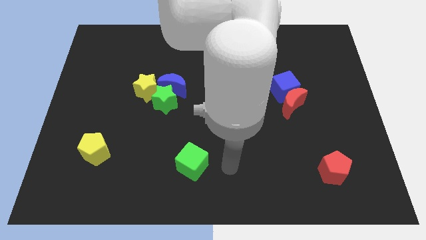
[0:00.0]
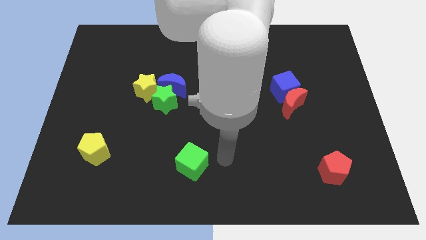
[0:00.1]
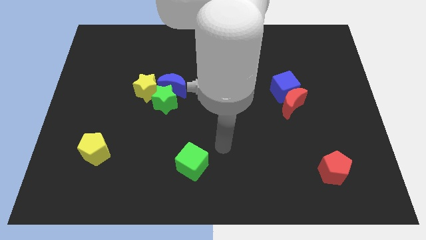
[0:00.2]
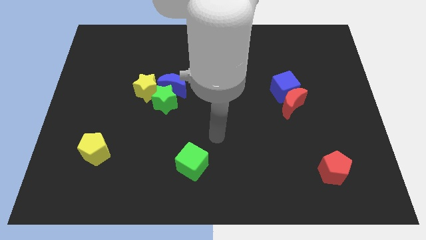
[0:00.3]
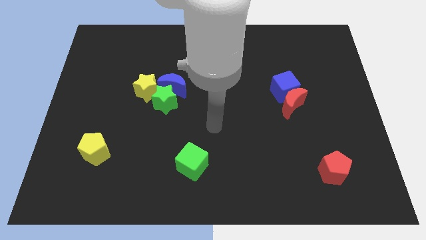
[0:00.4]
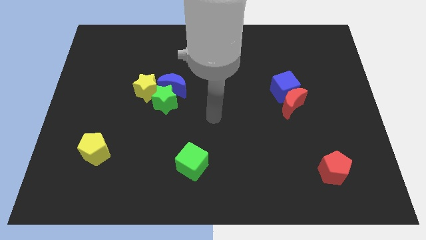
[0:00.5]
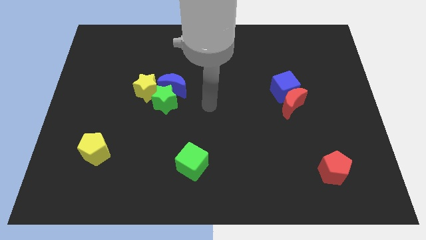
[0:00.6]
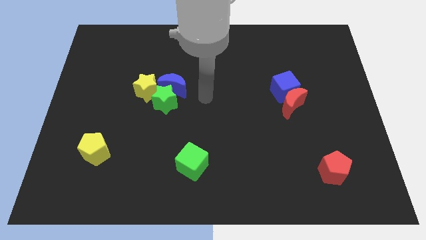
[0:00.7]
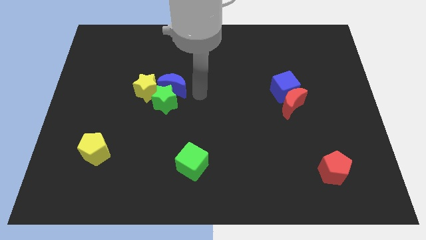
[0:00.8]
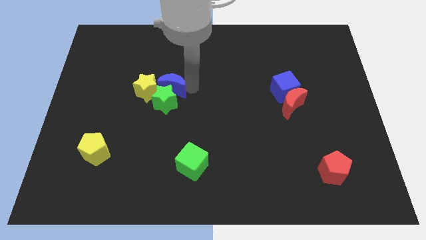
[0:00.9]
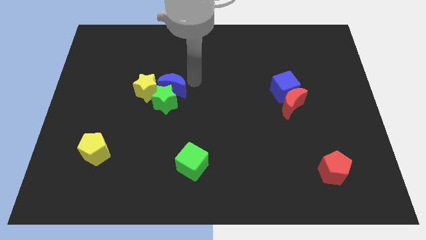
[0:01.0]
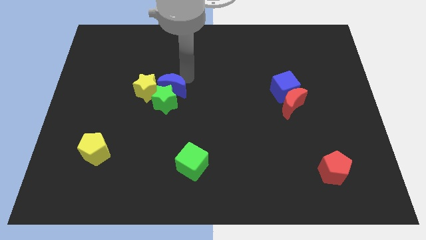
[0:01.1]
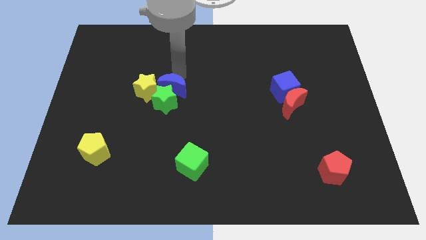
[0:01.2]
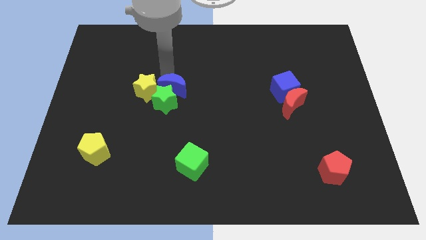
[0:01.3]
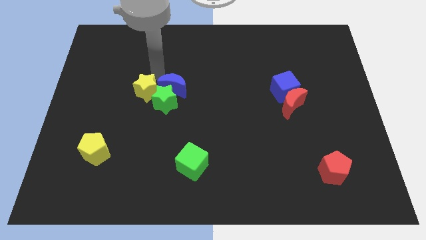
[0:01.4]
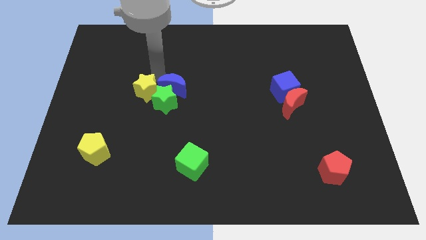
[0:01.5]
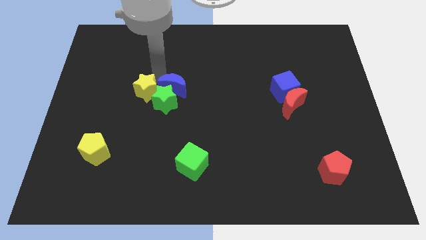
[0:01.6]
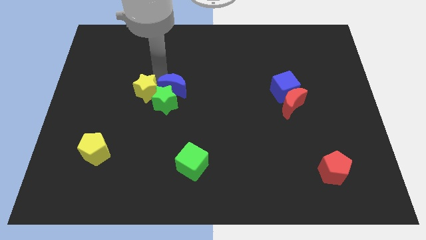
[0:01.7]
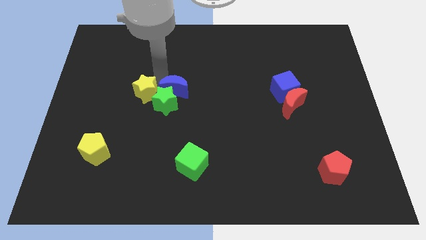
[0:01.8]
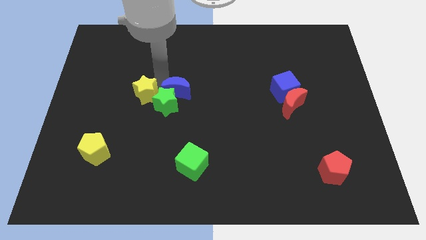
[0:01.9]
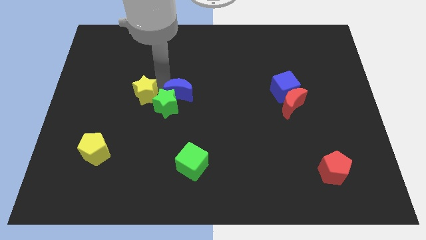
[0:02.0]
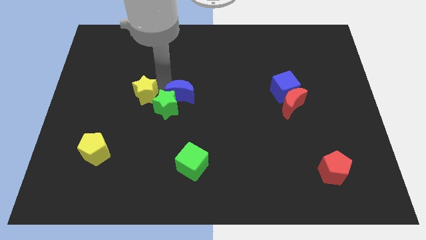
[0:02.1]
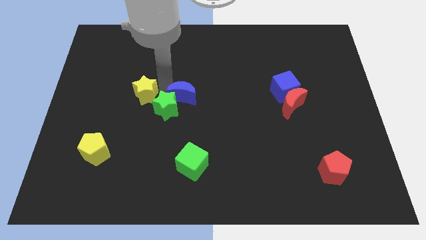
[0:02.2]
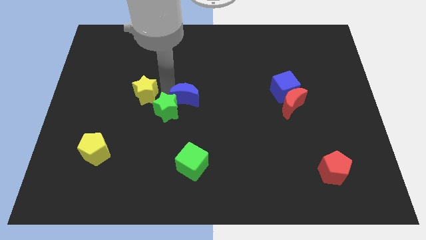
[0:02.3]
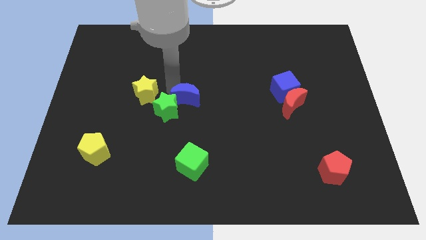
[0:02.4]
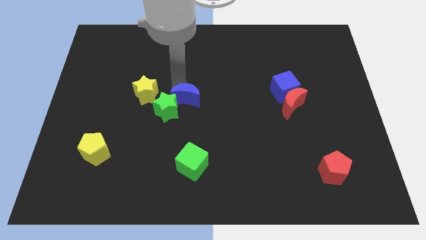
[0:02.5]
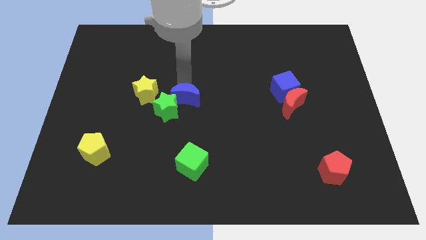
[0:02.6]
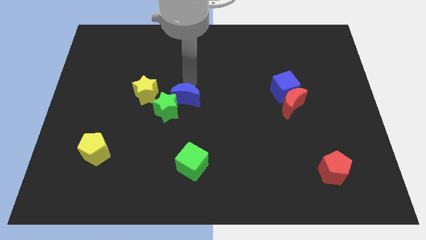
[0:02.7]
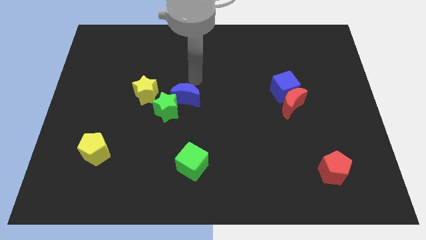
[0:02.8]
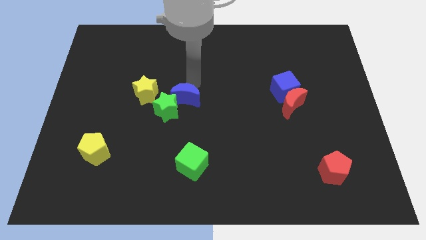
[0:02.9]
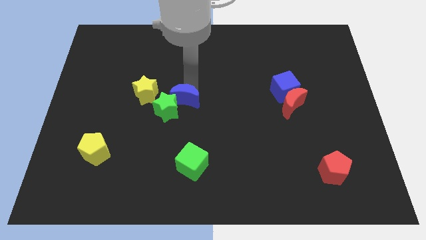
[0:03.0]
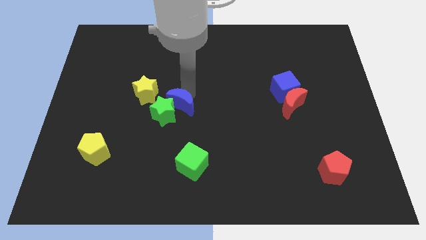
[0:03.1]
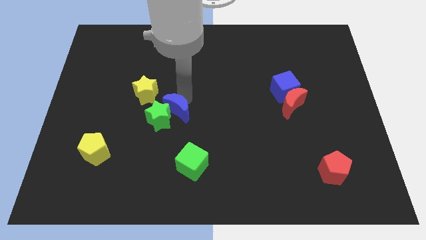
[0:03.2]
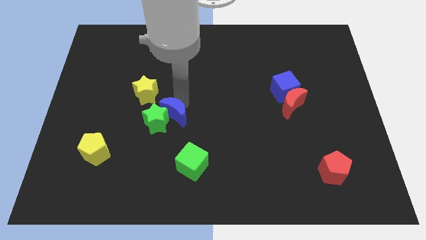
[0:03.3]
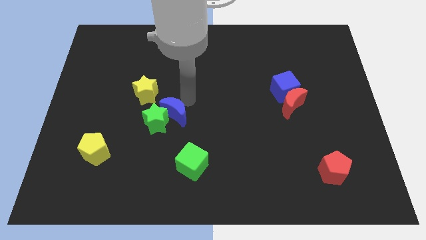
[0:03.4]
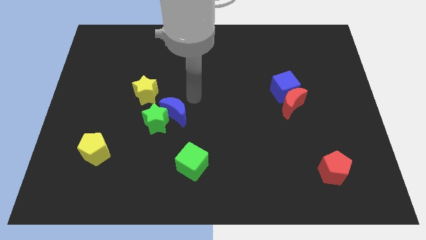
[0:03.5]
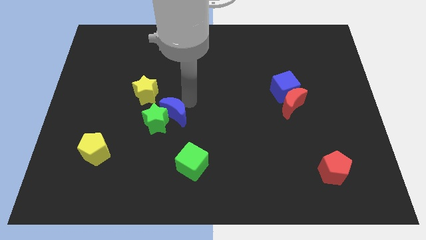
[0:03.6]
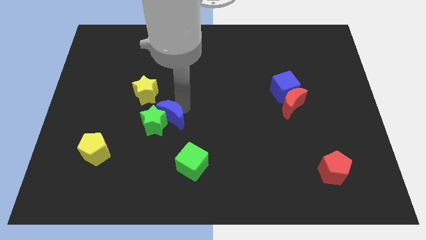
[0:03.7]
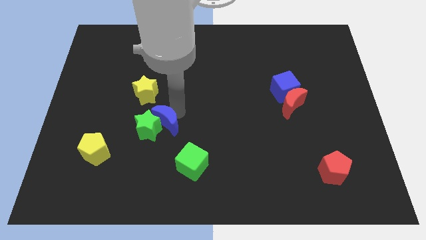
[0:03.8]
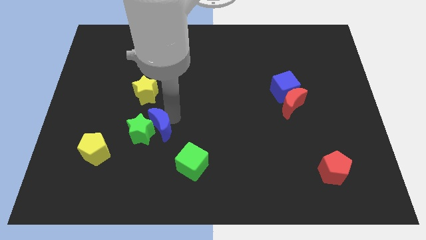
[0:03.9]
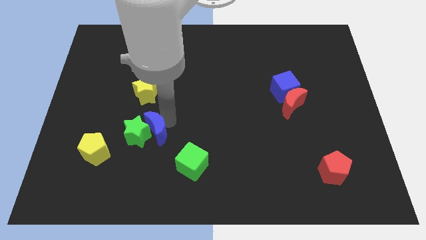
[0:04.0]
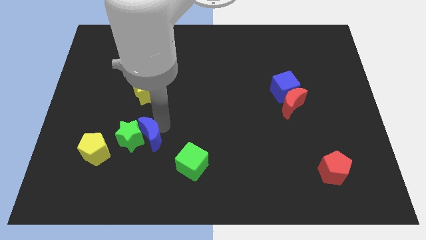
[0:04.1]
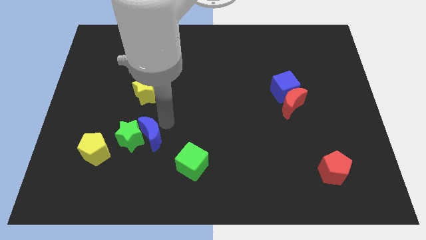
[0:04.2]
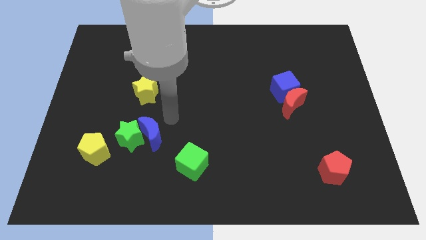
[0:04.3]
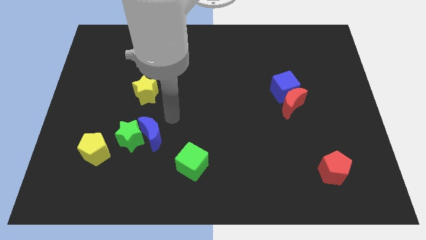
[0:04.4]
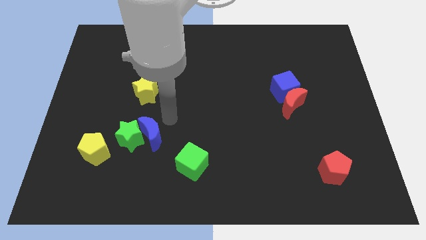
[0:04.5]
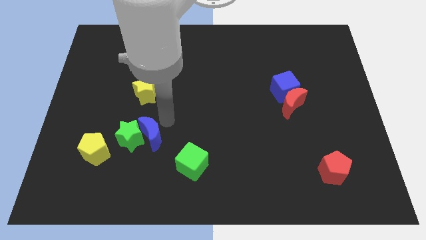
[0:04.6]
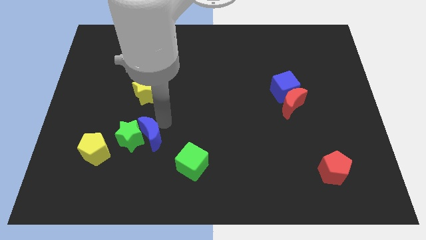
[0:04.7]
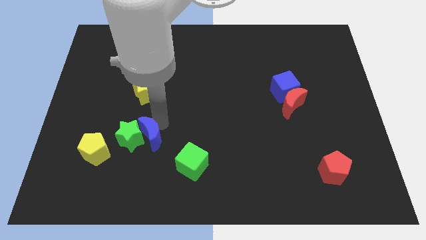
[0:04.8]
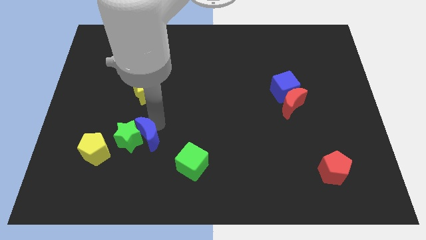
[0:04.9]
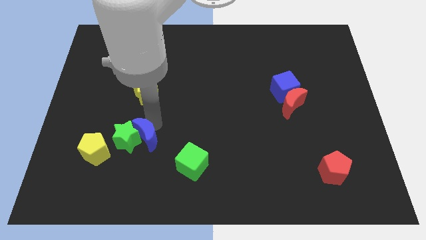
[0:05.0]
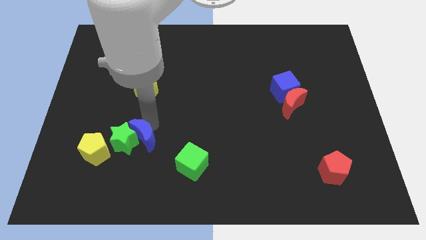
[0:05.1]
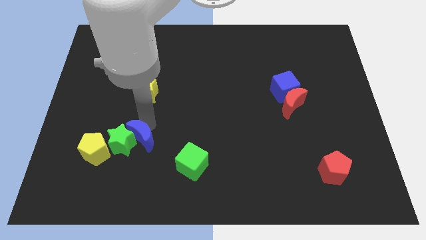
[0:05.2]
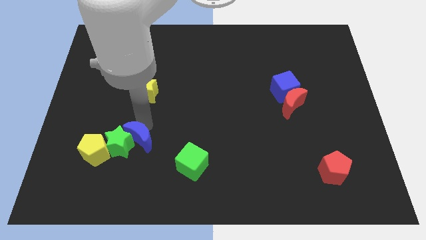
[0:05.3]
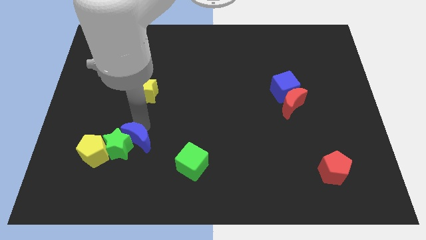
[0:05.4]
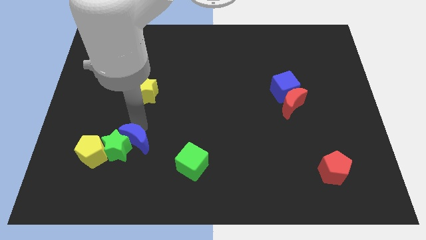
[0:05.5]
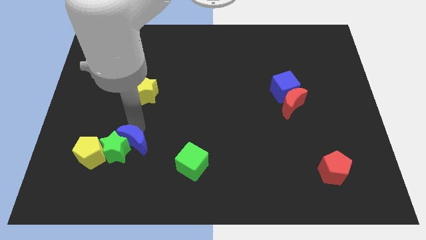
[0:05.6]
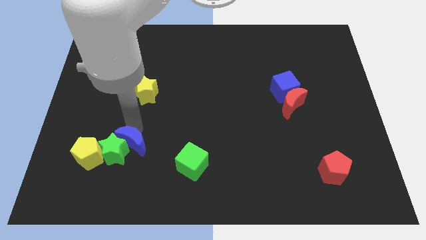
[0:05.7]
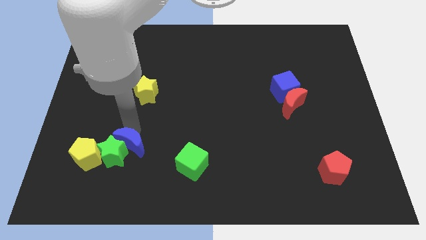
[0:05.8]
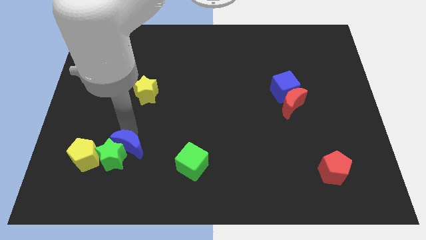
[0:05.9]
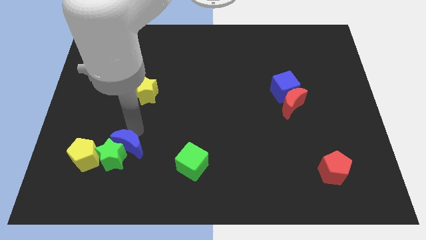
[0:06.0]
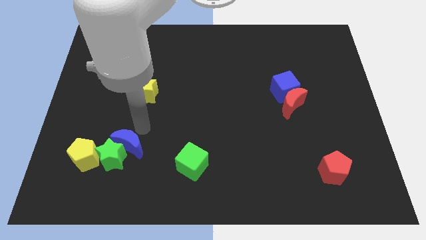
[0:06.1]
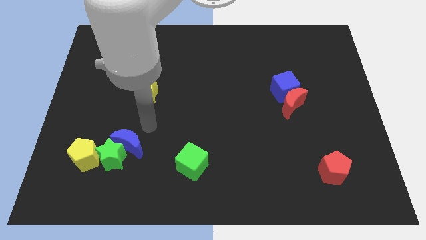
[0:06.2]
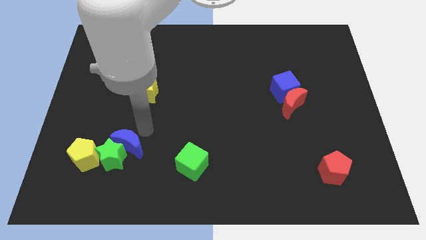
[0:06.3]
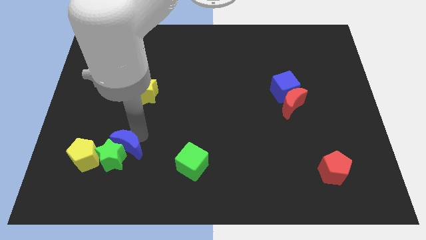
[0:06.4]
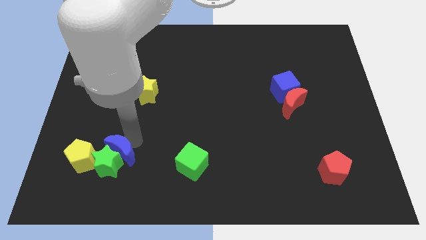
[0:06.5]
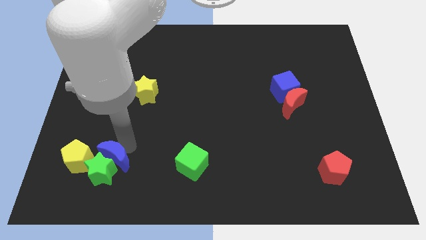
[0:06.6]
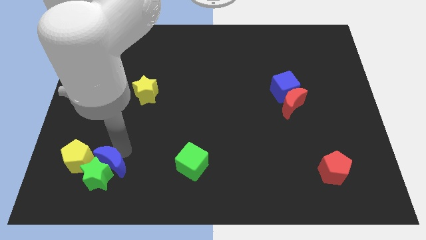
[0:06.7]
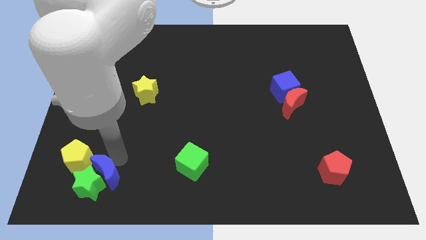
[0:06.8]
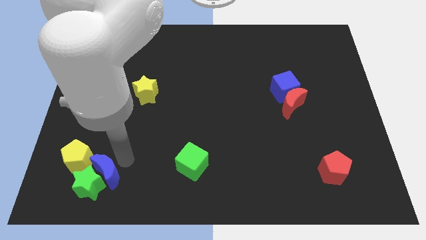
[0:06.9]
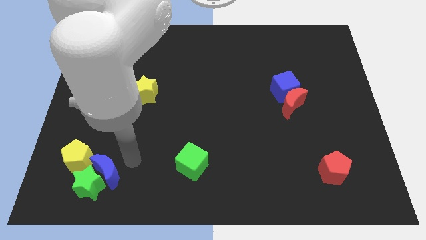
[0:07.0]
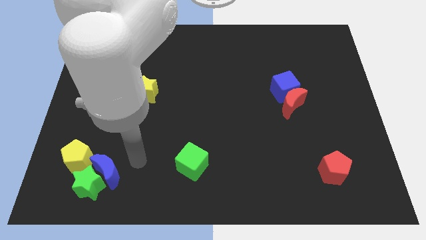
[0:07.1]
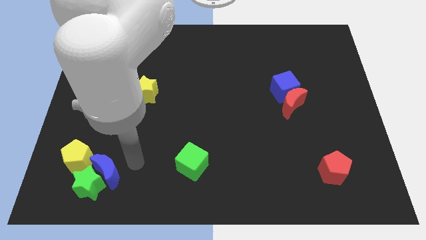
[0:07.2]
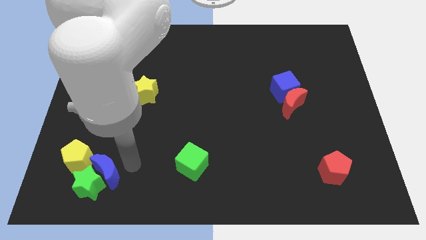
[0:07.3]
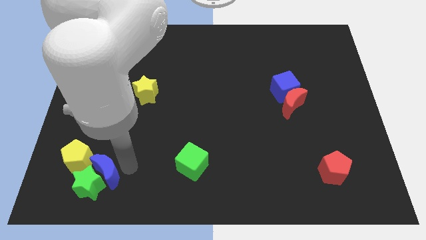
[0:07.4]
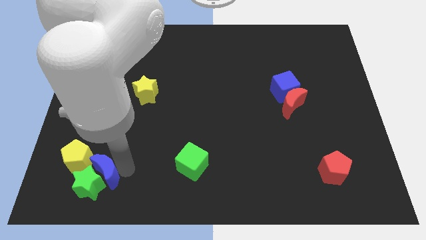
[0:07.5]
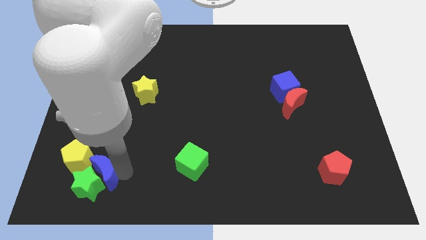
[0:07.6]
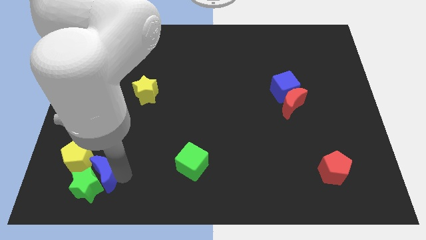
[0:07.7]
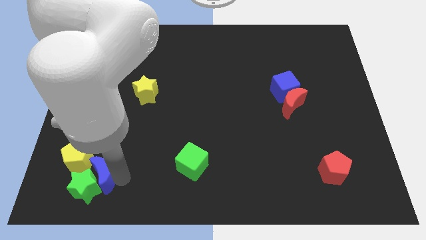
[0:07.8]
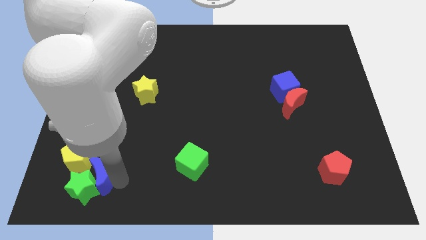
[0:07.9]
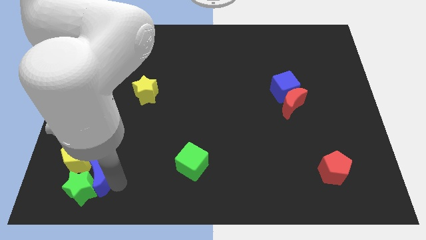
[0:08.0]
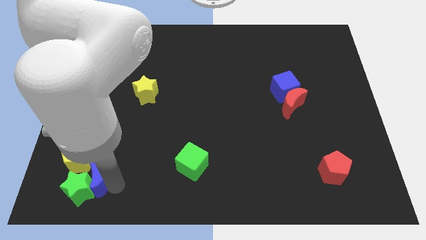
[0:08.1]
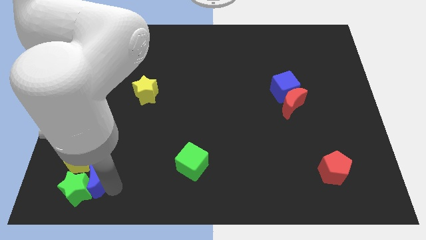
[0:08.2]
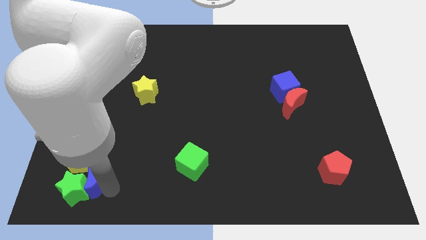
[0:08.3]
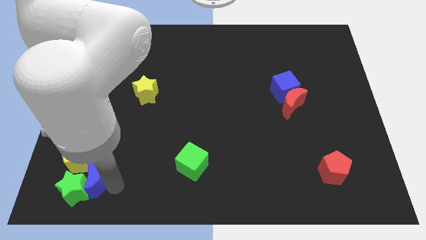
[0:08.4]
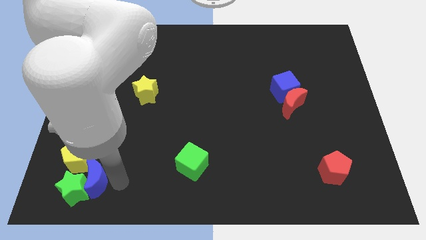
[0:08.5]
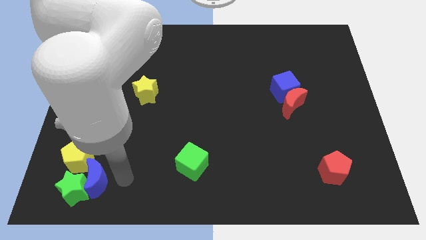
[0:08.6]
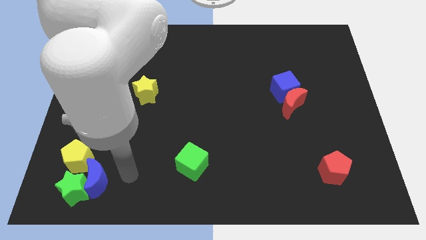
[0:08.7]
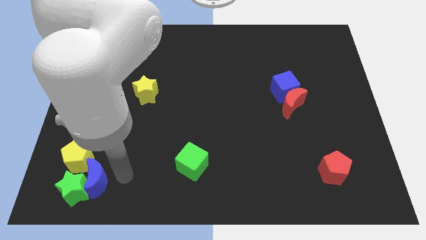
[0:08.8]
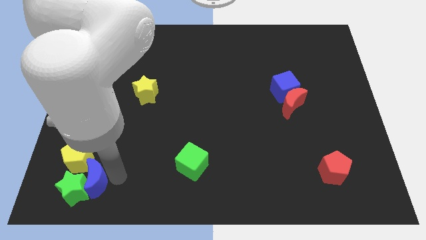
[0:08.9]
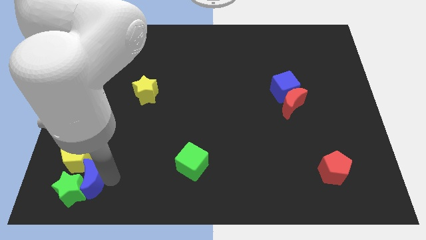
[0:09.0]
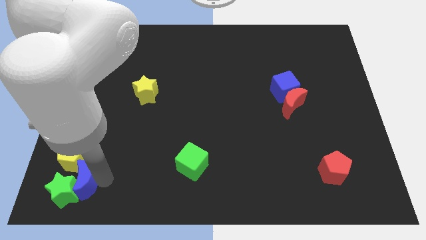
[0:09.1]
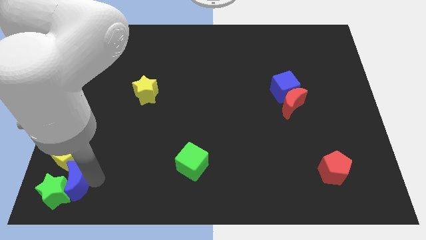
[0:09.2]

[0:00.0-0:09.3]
push the blue moon to the bottom left corner
